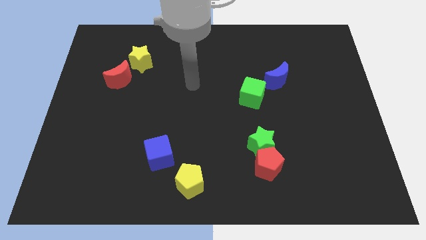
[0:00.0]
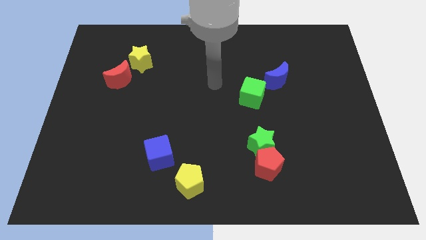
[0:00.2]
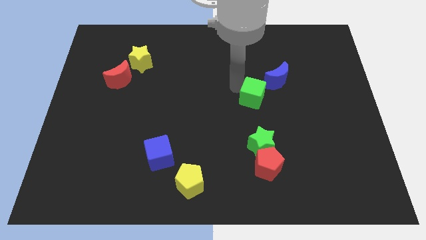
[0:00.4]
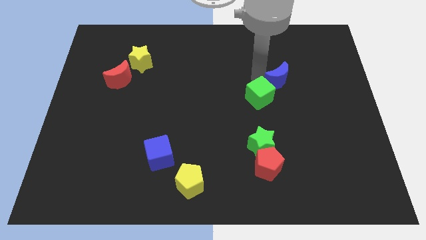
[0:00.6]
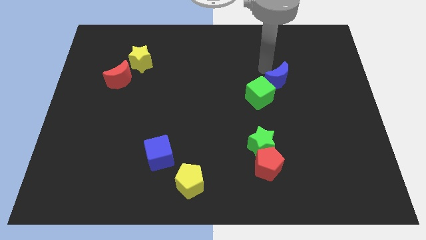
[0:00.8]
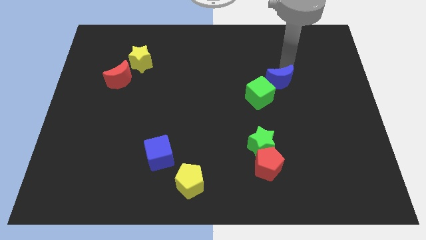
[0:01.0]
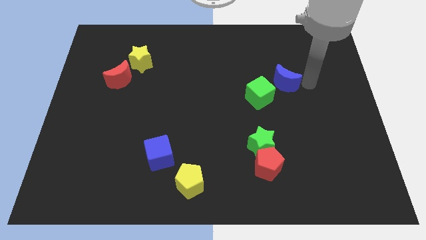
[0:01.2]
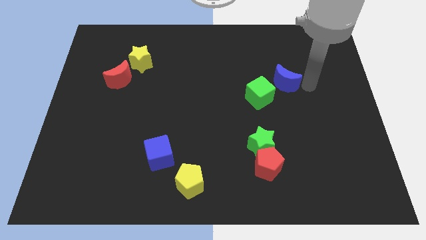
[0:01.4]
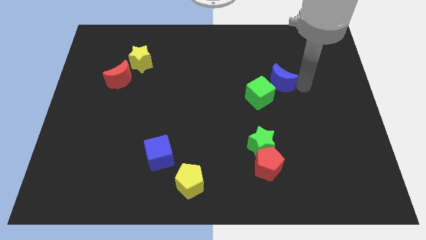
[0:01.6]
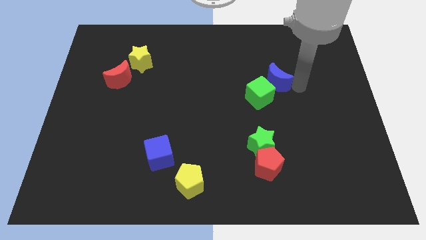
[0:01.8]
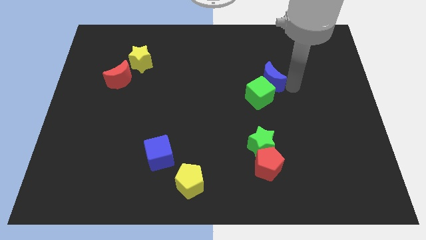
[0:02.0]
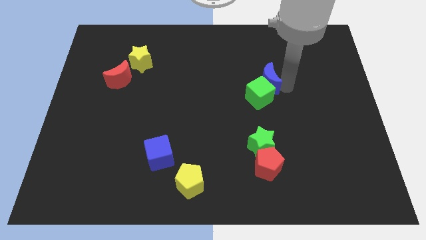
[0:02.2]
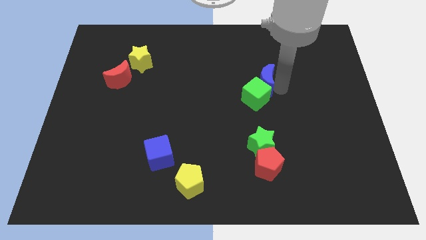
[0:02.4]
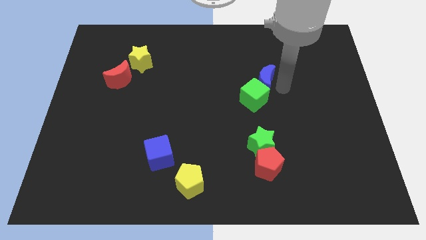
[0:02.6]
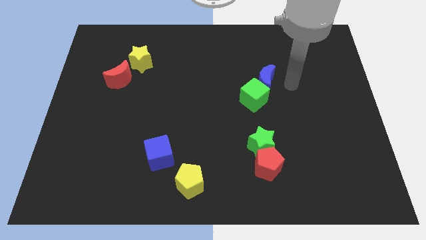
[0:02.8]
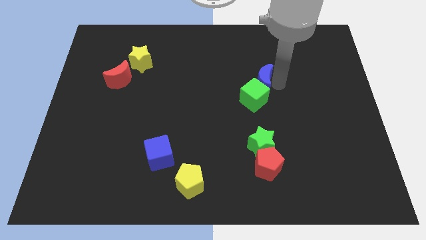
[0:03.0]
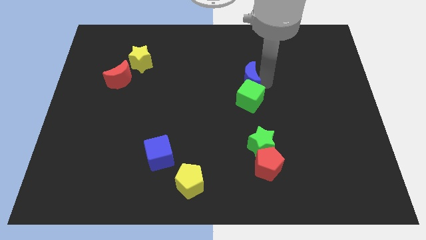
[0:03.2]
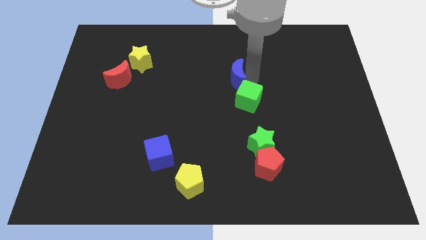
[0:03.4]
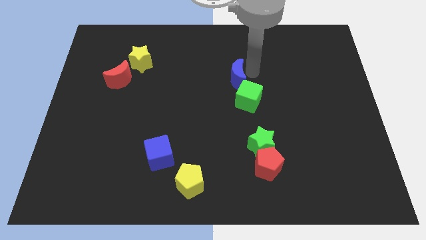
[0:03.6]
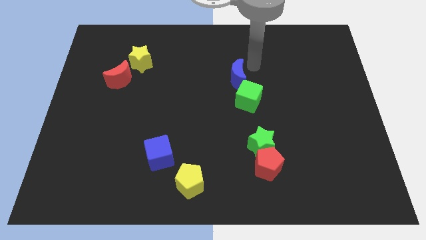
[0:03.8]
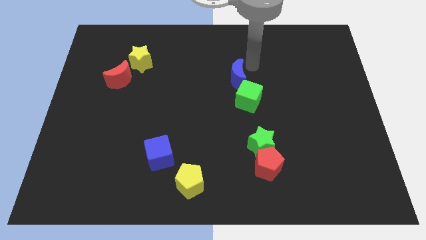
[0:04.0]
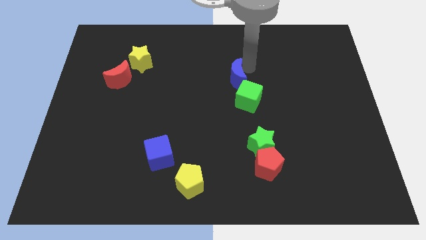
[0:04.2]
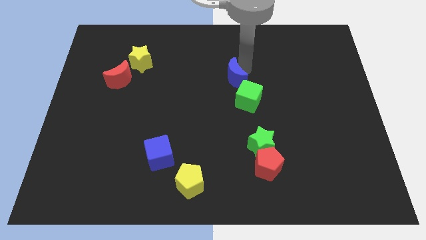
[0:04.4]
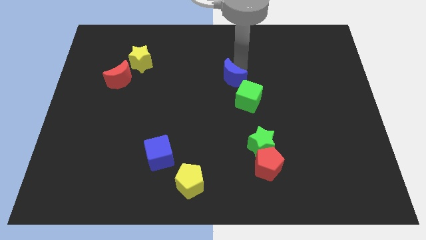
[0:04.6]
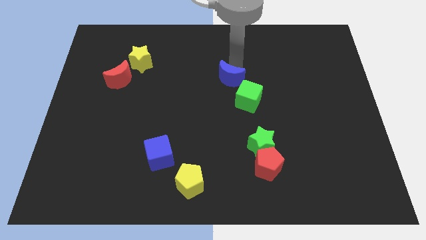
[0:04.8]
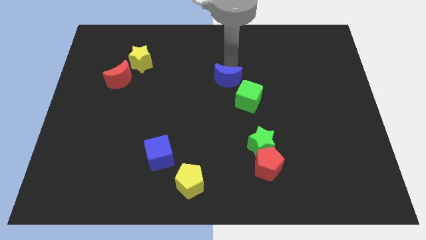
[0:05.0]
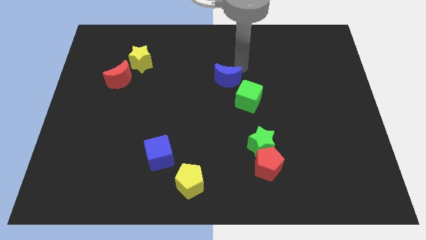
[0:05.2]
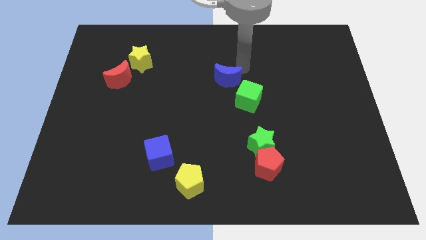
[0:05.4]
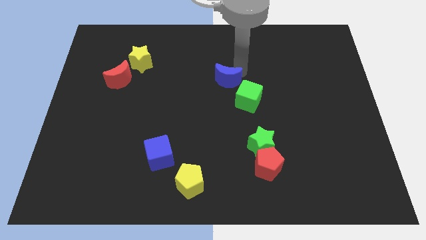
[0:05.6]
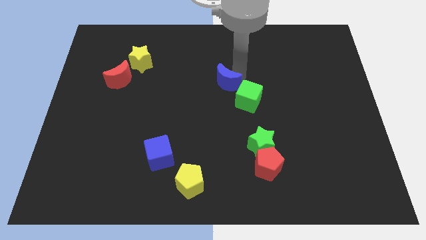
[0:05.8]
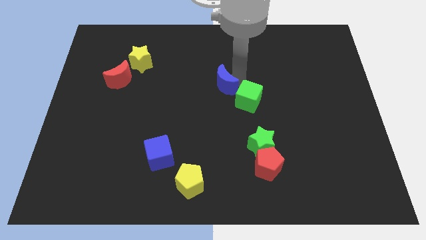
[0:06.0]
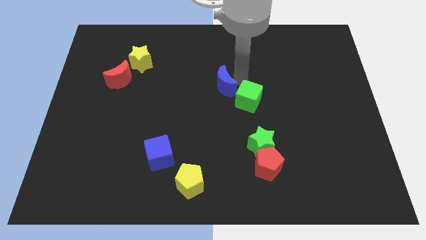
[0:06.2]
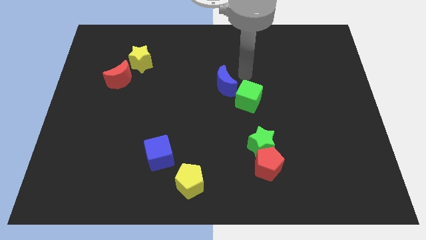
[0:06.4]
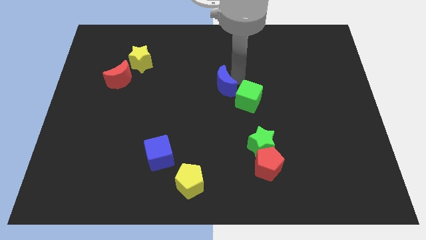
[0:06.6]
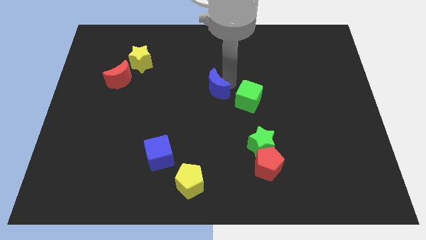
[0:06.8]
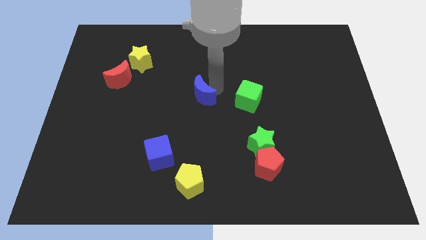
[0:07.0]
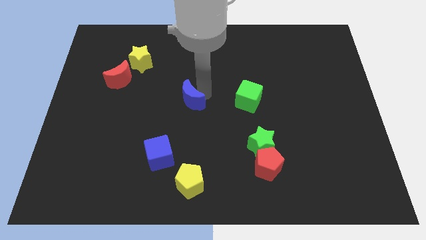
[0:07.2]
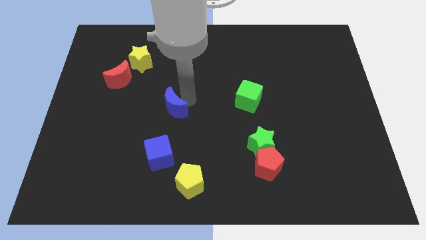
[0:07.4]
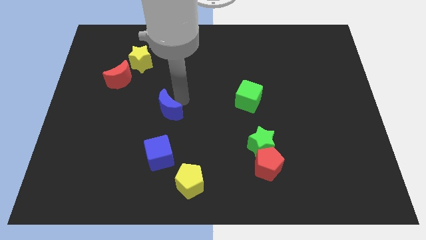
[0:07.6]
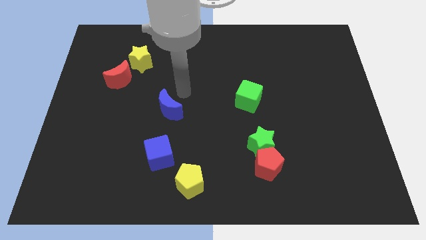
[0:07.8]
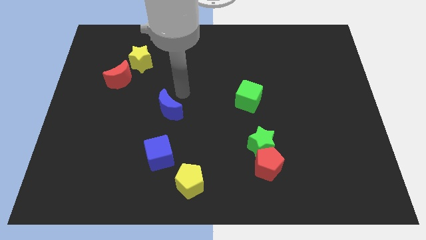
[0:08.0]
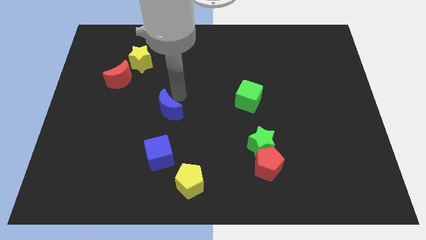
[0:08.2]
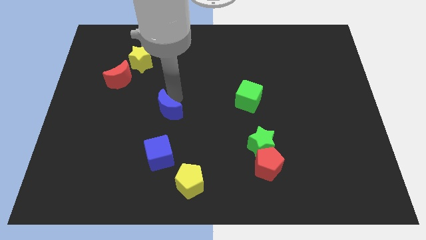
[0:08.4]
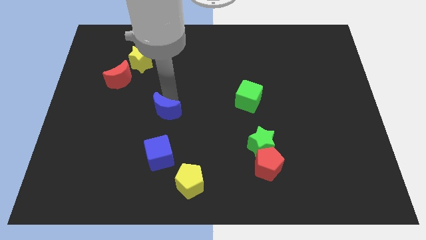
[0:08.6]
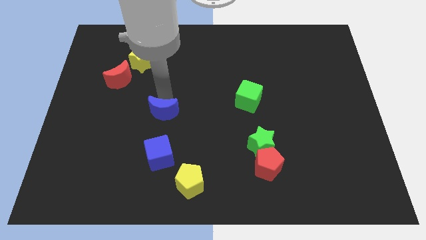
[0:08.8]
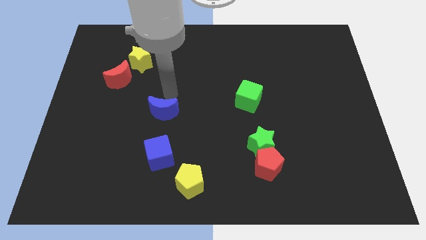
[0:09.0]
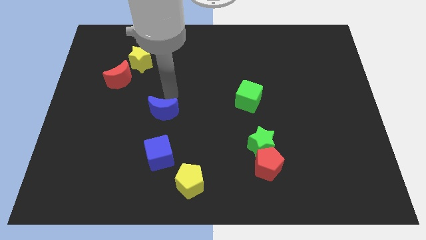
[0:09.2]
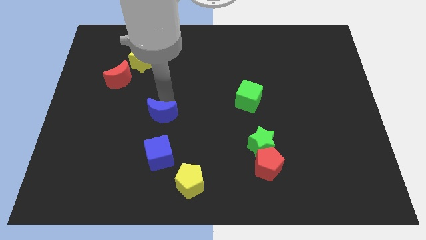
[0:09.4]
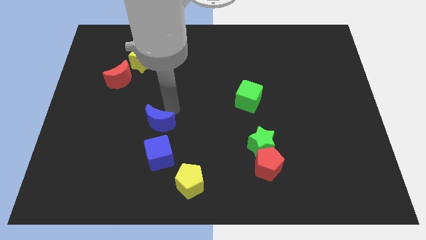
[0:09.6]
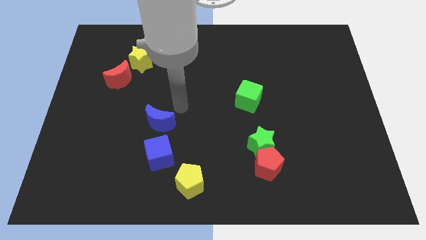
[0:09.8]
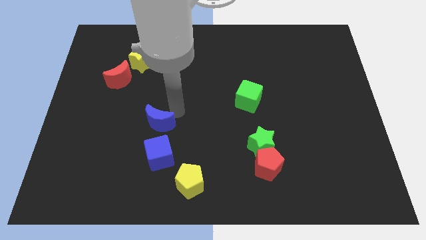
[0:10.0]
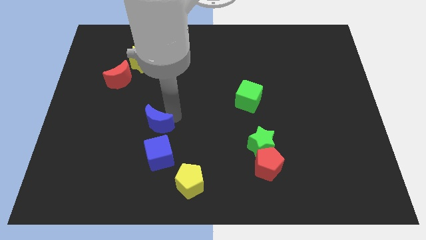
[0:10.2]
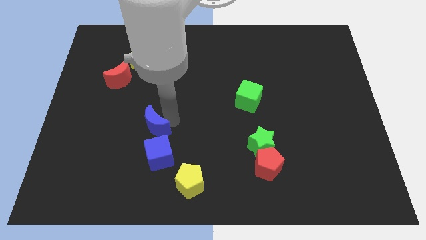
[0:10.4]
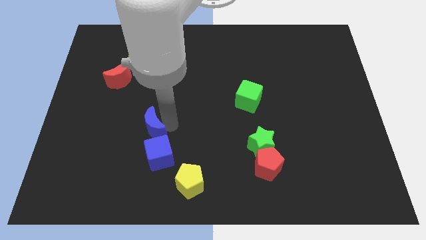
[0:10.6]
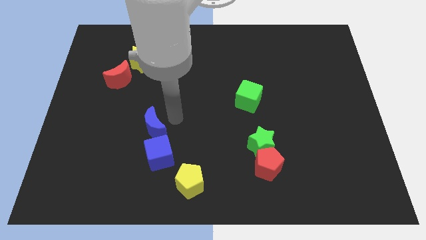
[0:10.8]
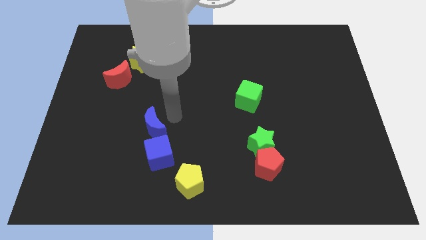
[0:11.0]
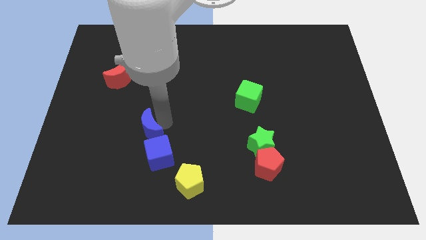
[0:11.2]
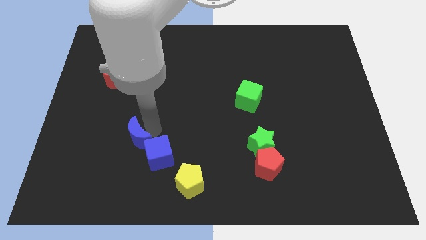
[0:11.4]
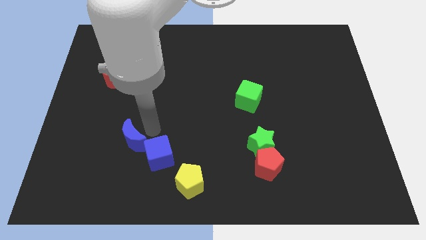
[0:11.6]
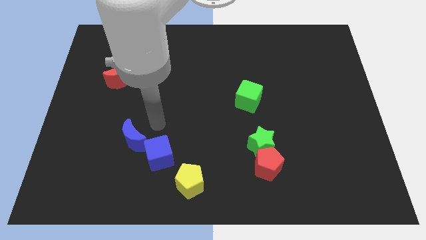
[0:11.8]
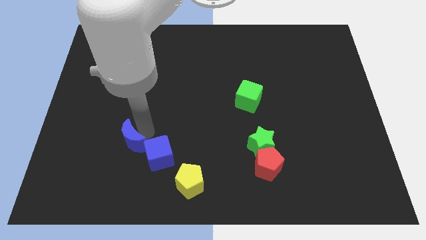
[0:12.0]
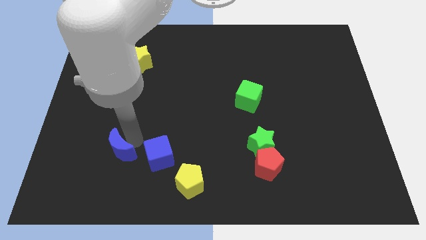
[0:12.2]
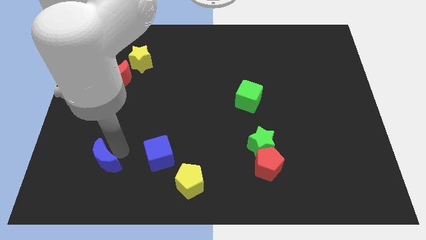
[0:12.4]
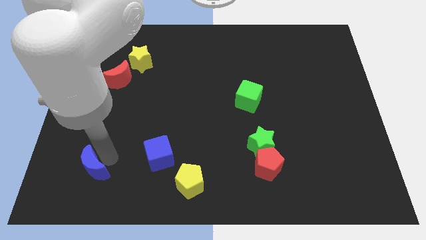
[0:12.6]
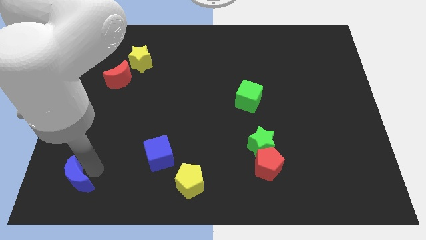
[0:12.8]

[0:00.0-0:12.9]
slide the blue moon to the lower left corner

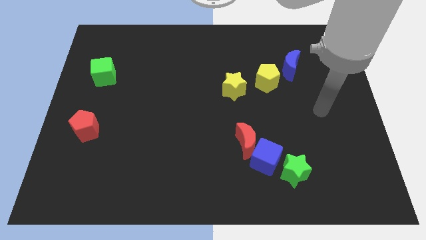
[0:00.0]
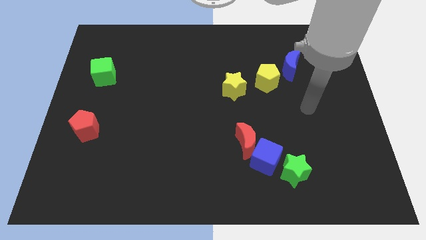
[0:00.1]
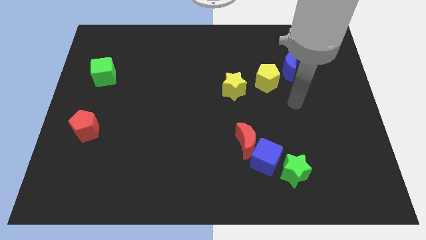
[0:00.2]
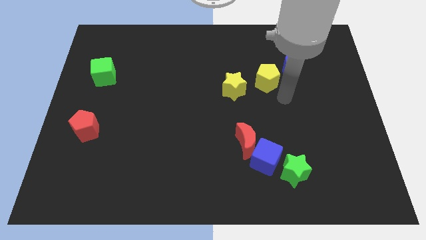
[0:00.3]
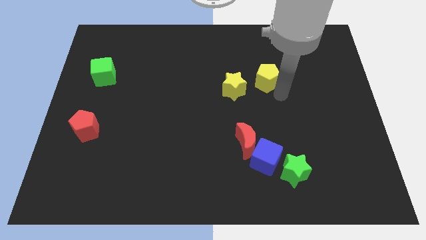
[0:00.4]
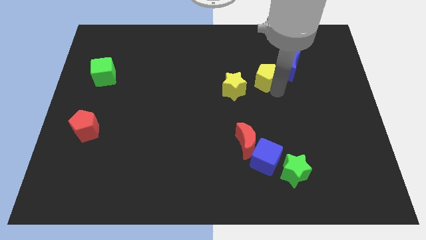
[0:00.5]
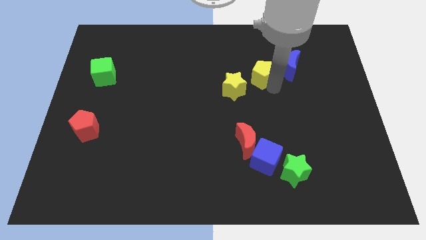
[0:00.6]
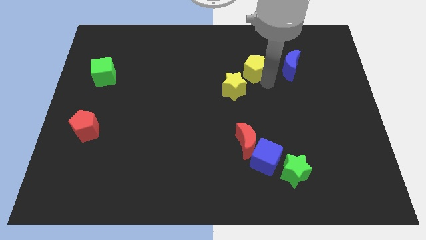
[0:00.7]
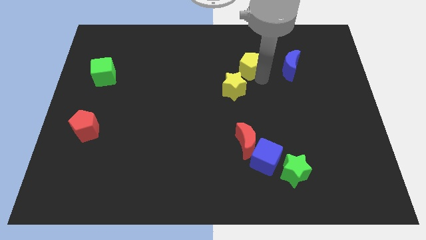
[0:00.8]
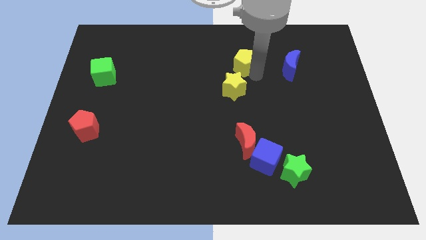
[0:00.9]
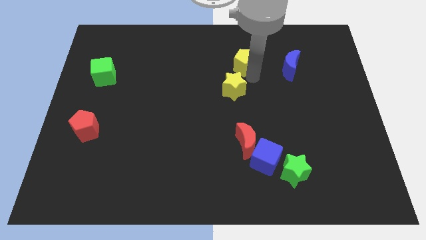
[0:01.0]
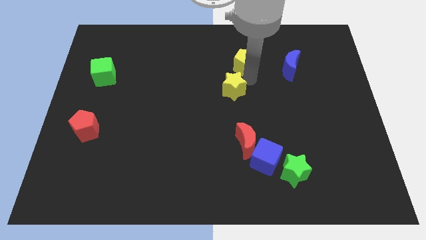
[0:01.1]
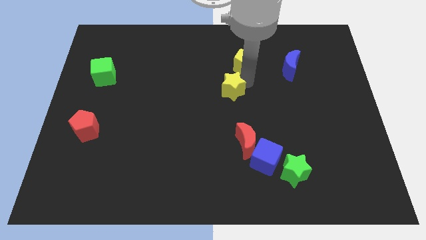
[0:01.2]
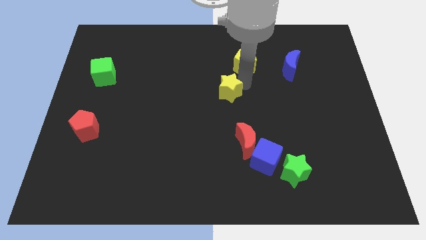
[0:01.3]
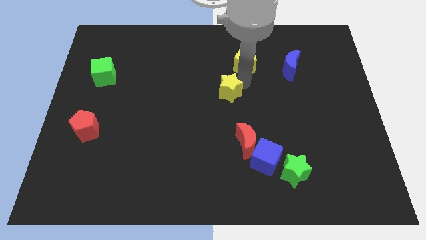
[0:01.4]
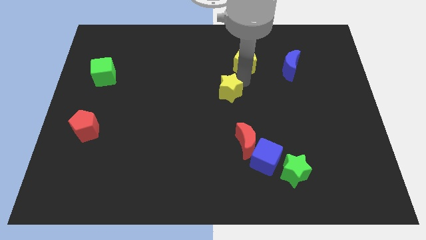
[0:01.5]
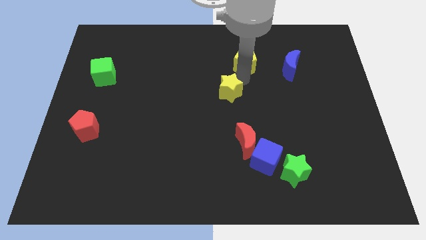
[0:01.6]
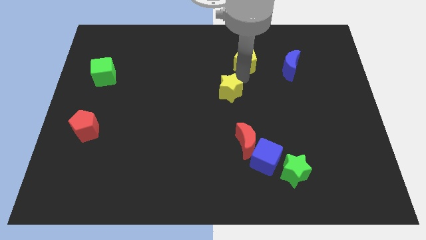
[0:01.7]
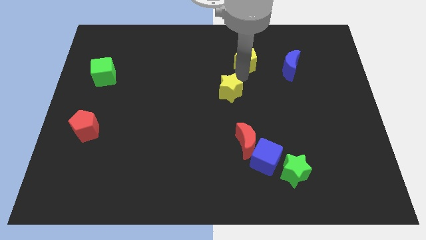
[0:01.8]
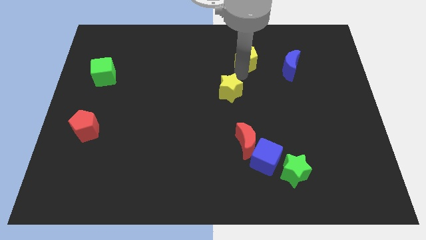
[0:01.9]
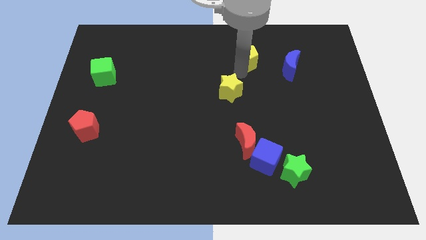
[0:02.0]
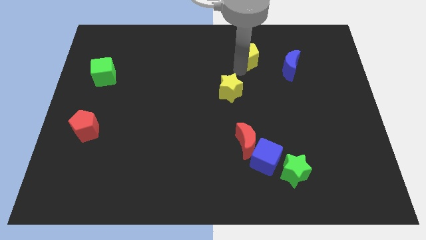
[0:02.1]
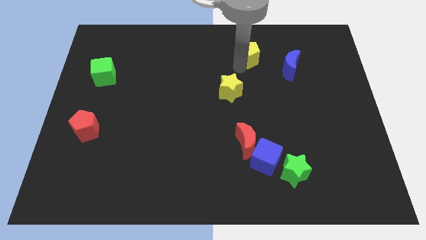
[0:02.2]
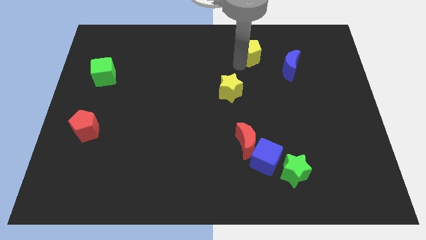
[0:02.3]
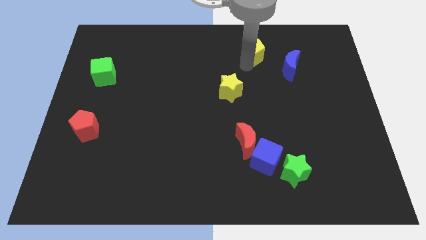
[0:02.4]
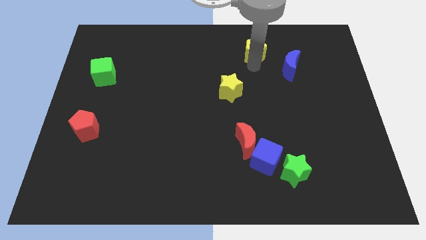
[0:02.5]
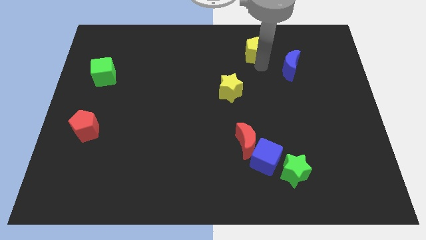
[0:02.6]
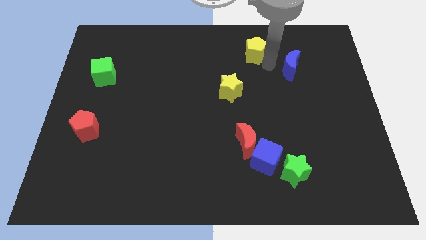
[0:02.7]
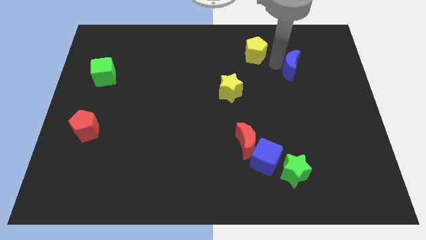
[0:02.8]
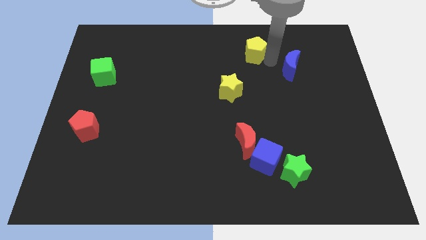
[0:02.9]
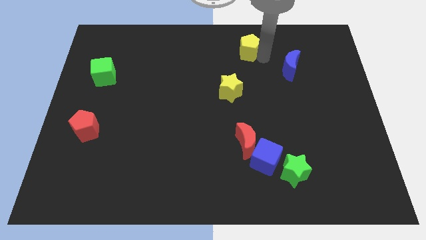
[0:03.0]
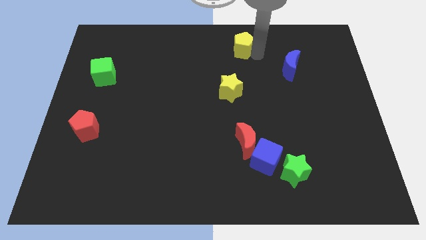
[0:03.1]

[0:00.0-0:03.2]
push the yellow pentagon to the towards your base
